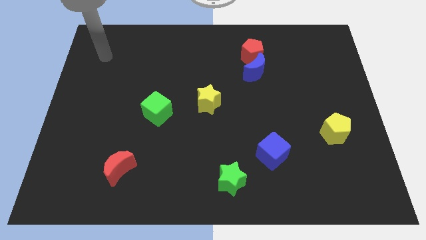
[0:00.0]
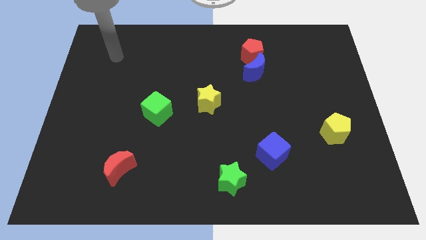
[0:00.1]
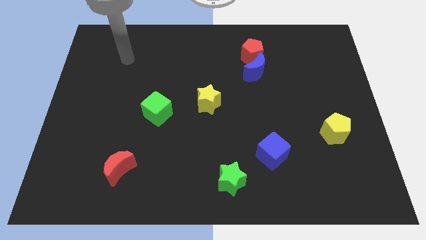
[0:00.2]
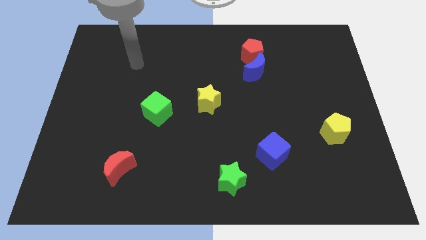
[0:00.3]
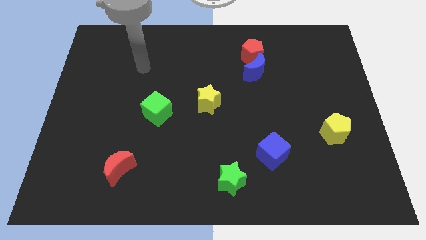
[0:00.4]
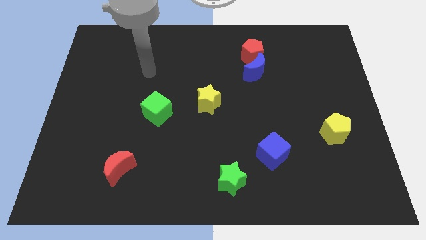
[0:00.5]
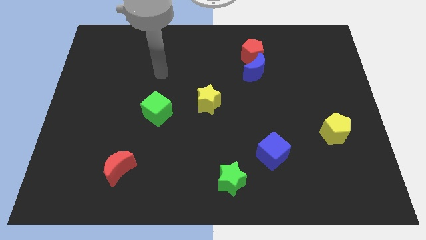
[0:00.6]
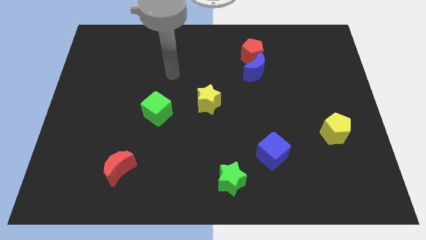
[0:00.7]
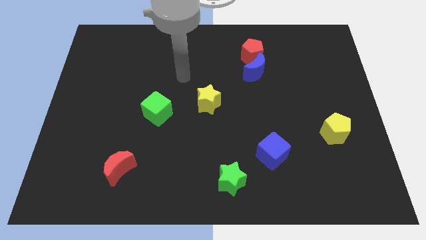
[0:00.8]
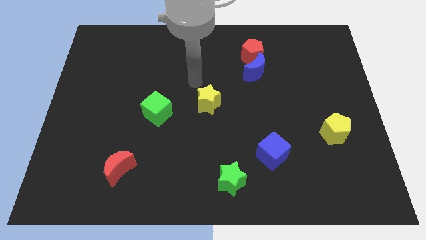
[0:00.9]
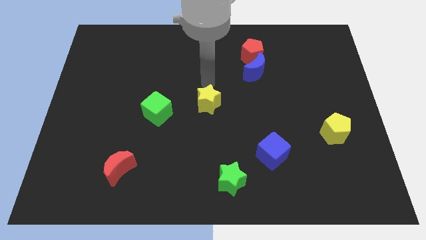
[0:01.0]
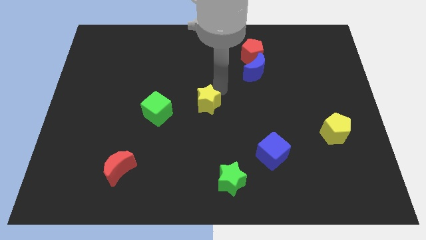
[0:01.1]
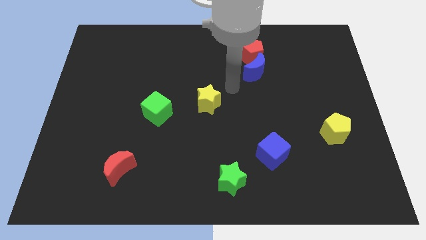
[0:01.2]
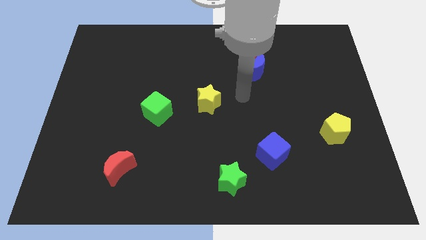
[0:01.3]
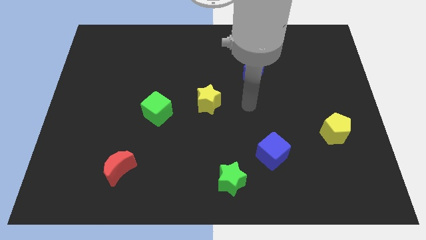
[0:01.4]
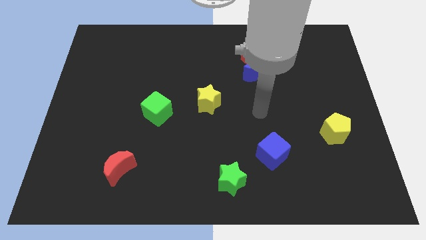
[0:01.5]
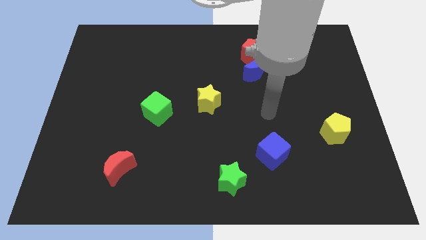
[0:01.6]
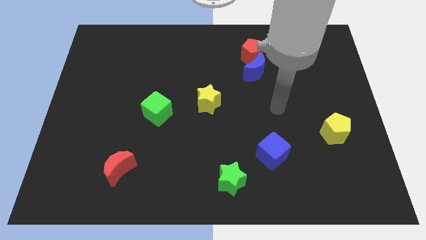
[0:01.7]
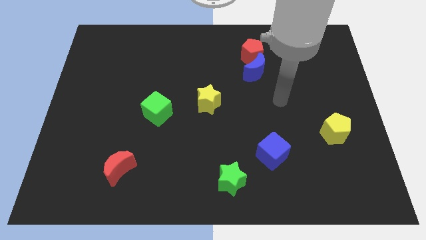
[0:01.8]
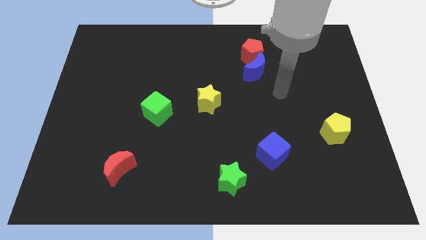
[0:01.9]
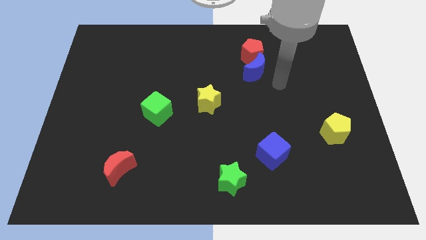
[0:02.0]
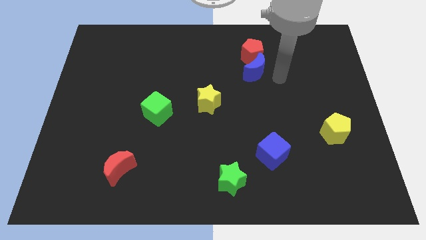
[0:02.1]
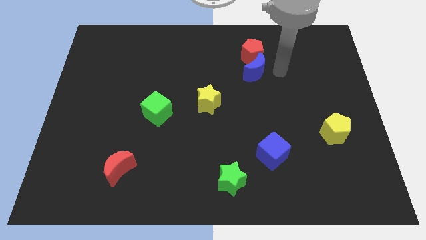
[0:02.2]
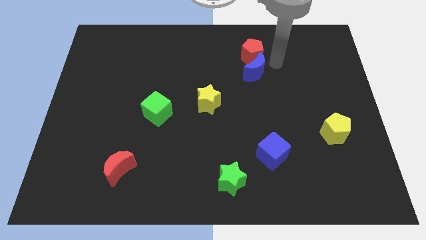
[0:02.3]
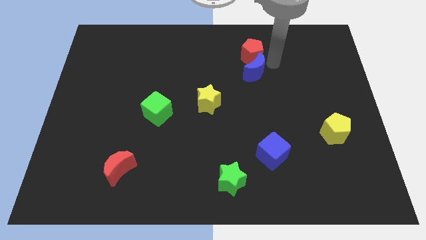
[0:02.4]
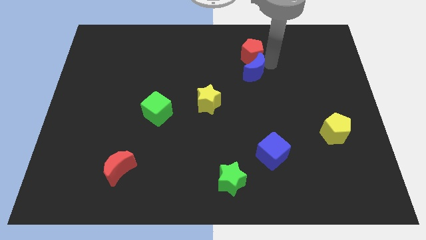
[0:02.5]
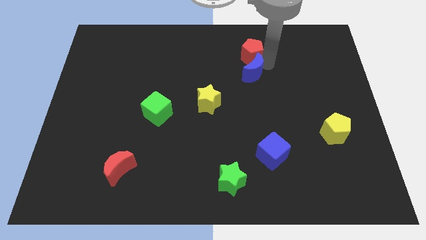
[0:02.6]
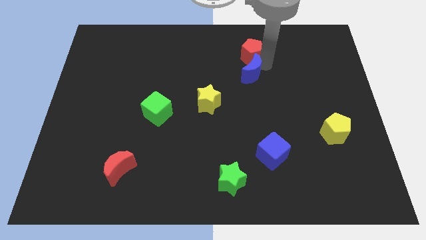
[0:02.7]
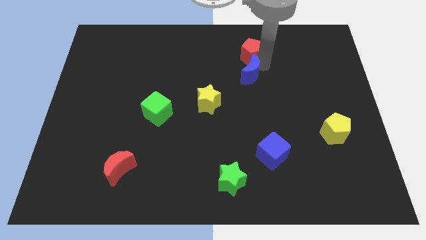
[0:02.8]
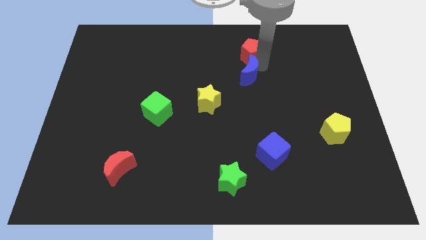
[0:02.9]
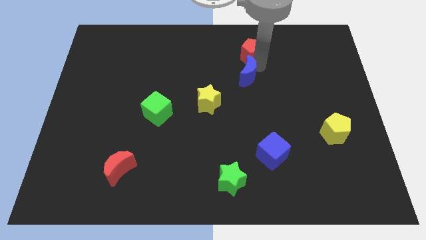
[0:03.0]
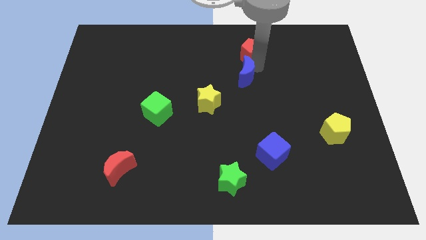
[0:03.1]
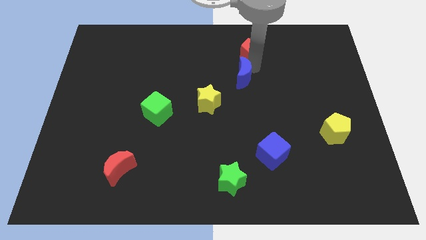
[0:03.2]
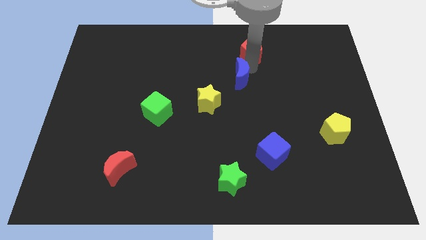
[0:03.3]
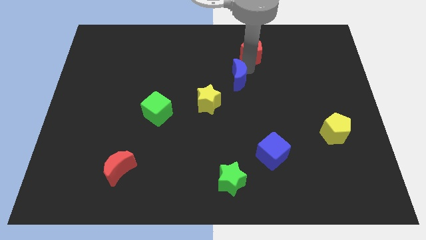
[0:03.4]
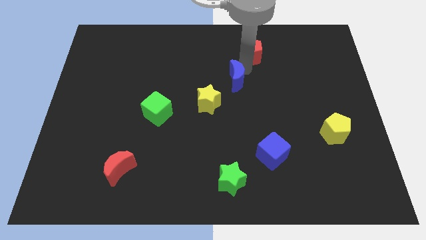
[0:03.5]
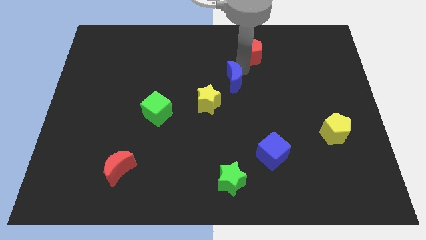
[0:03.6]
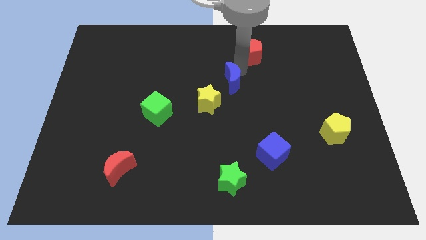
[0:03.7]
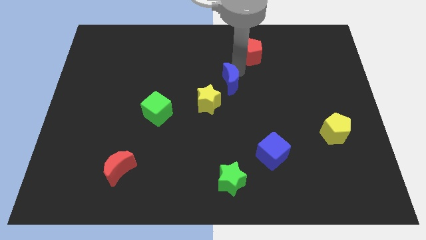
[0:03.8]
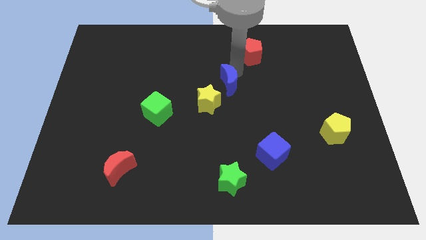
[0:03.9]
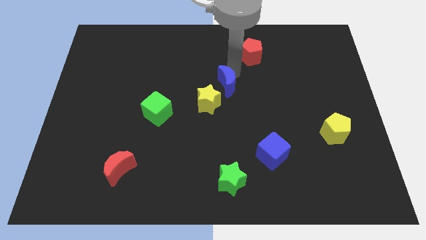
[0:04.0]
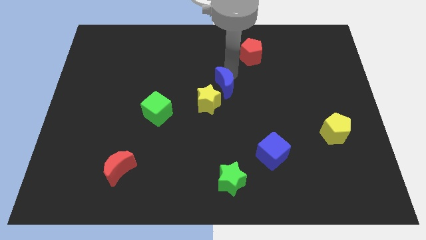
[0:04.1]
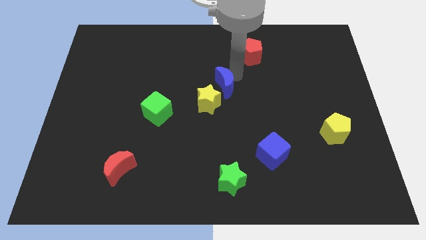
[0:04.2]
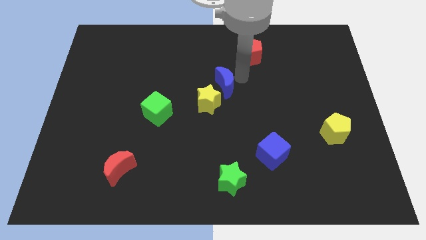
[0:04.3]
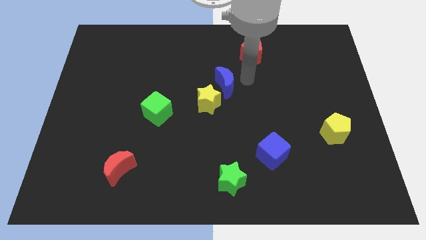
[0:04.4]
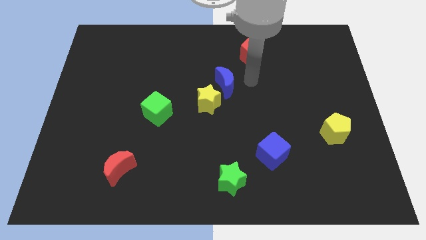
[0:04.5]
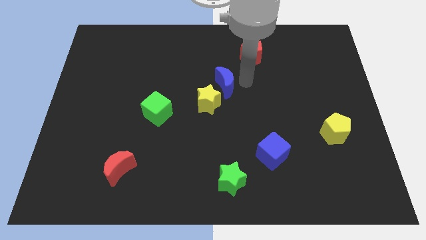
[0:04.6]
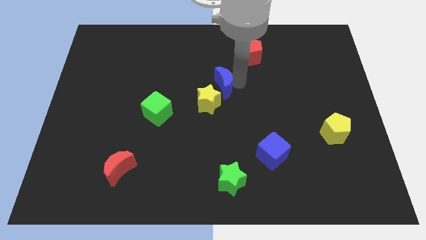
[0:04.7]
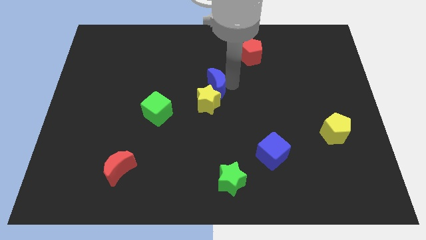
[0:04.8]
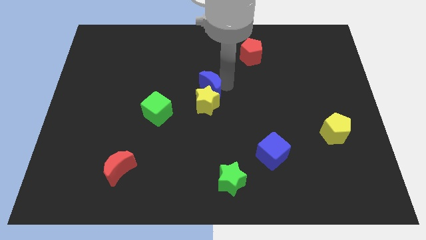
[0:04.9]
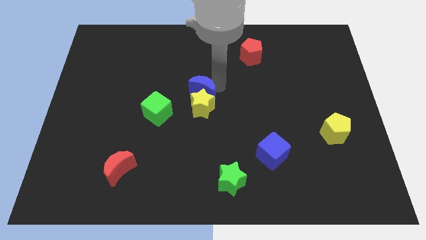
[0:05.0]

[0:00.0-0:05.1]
slide the blue moon to the top right of the green cube

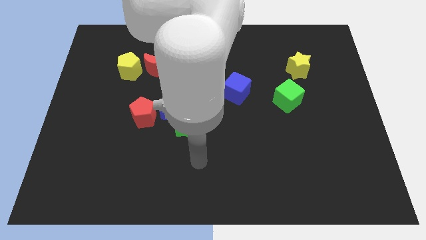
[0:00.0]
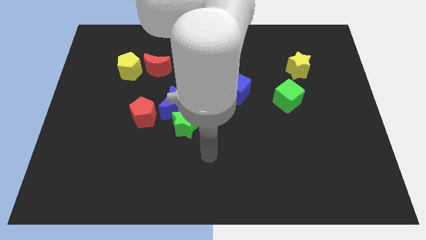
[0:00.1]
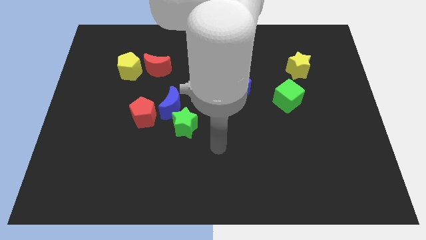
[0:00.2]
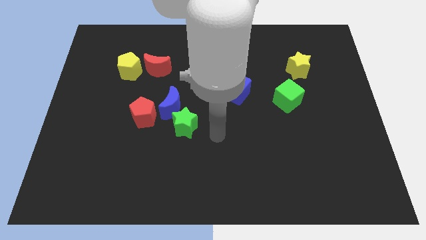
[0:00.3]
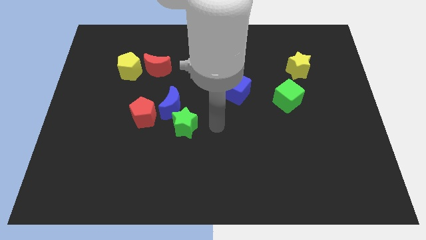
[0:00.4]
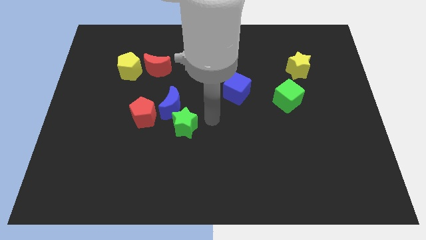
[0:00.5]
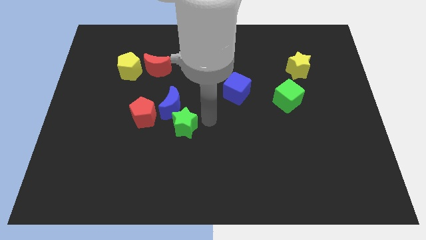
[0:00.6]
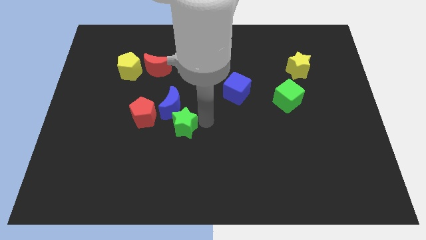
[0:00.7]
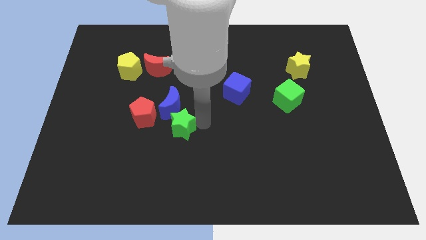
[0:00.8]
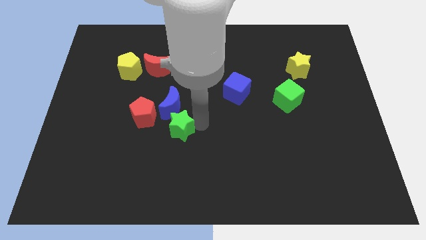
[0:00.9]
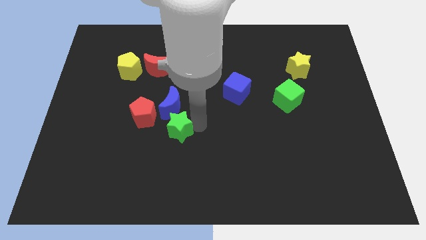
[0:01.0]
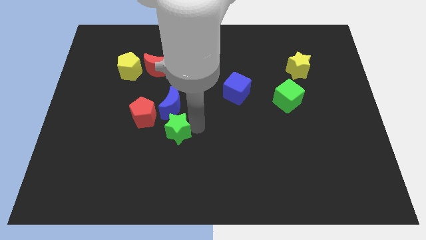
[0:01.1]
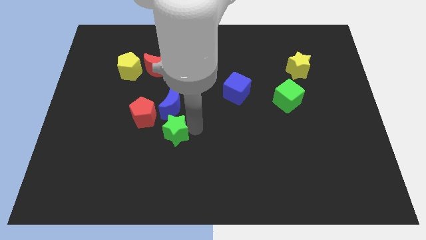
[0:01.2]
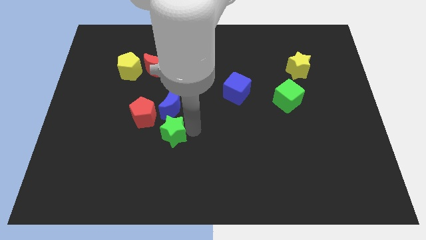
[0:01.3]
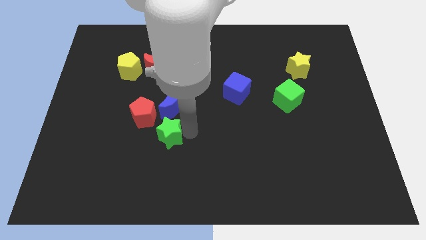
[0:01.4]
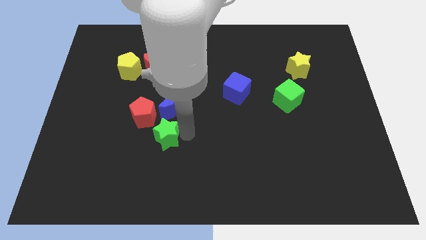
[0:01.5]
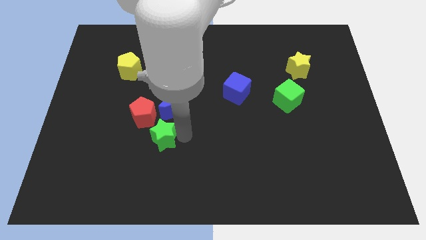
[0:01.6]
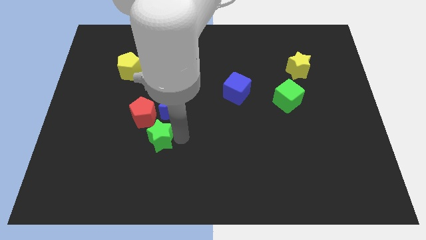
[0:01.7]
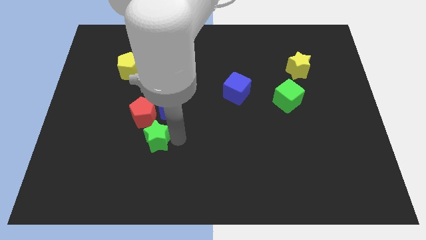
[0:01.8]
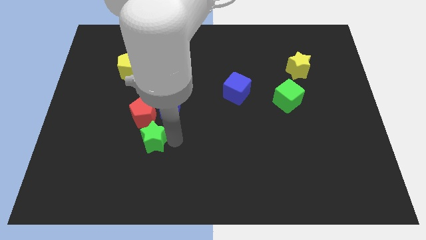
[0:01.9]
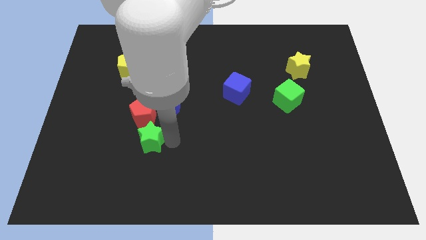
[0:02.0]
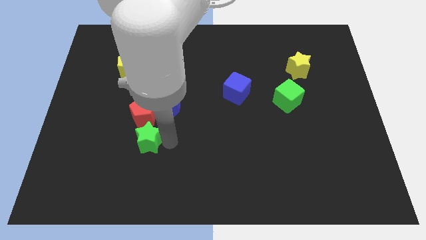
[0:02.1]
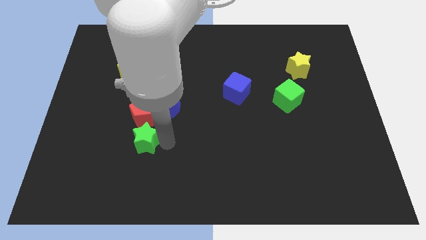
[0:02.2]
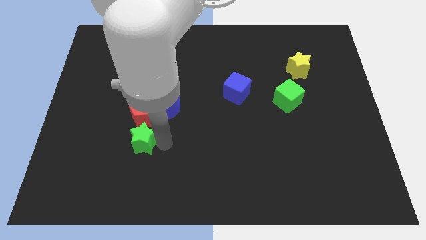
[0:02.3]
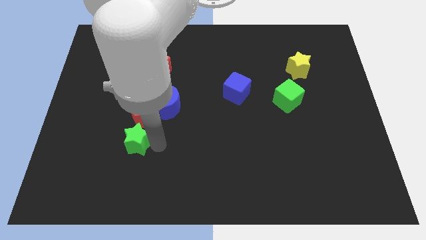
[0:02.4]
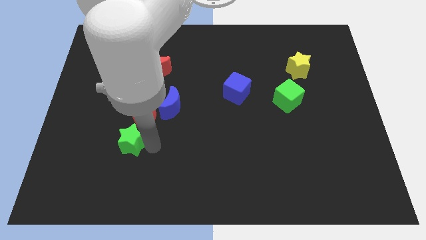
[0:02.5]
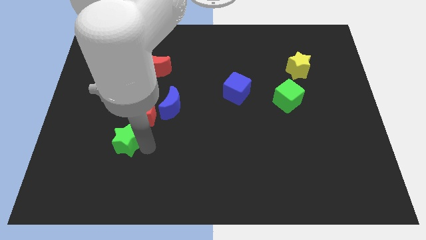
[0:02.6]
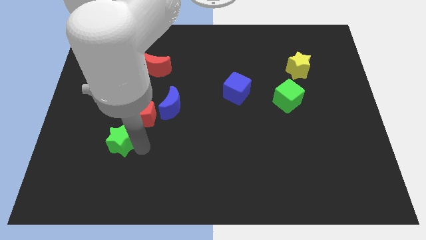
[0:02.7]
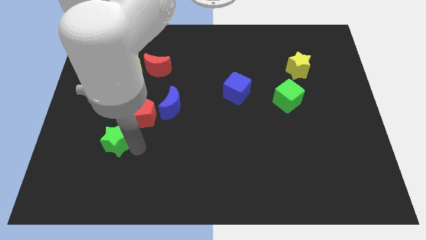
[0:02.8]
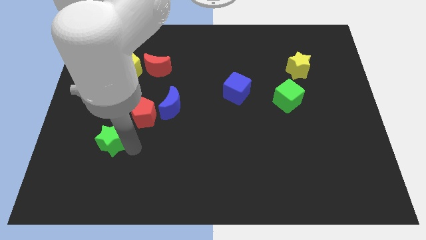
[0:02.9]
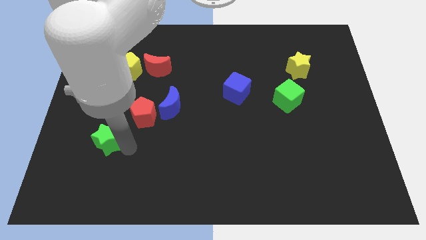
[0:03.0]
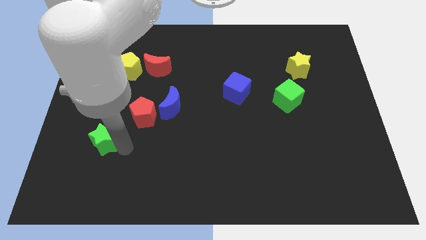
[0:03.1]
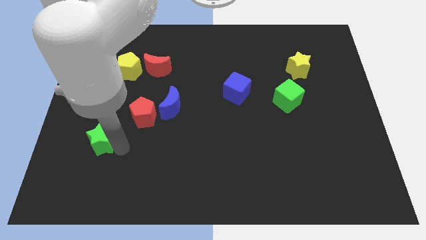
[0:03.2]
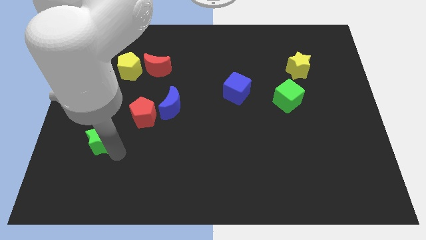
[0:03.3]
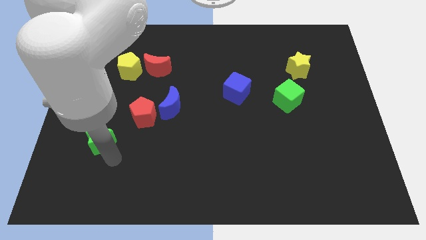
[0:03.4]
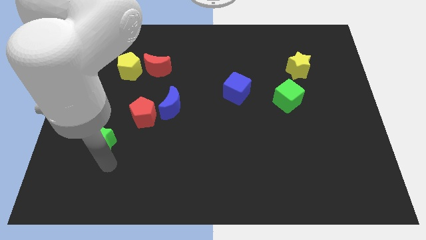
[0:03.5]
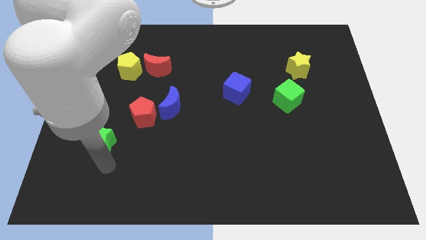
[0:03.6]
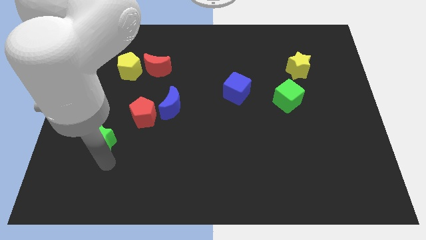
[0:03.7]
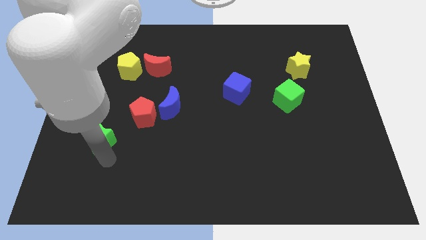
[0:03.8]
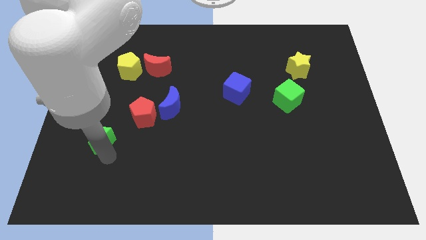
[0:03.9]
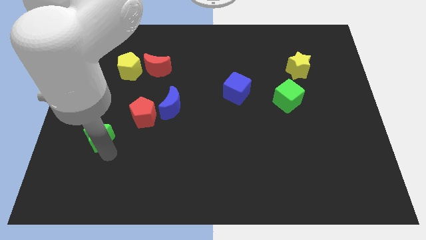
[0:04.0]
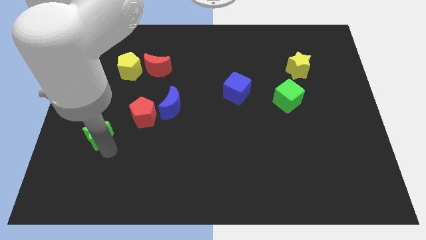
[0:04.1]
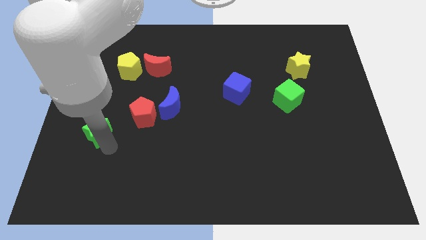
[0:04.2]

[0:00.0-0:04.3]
put the green star to the left side of the red pentagon
